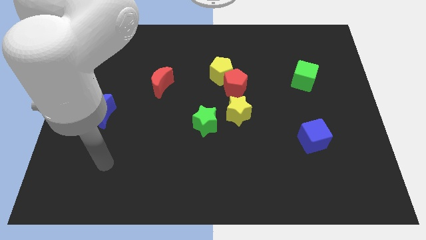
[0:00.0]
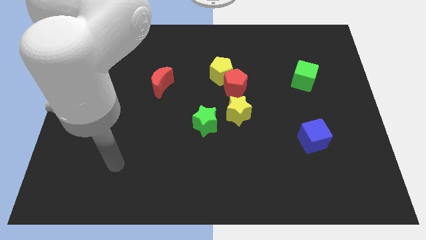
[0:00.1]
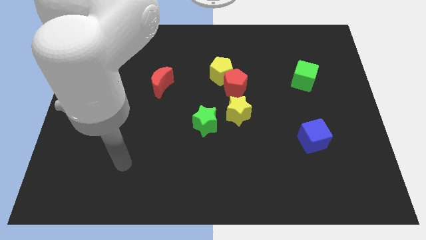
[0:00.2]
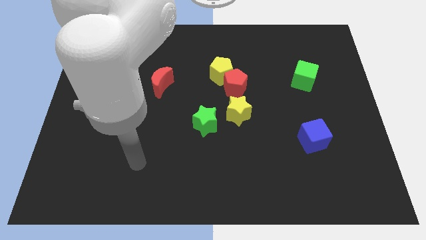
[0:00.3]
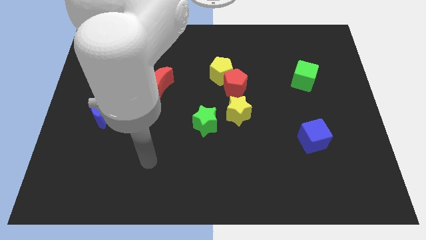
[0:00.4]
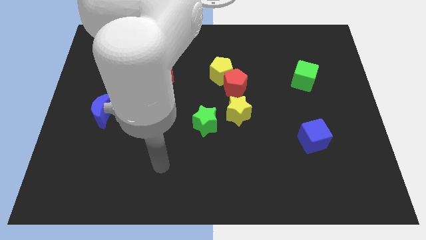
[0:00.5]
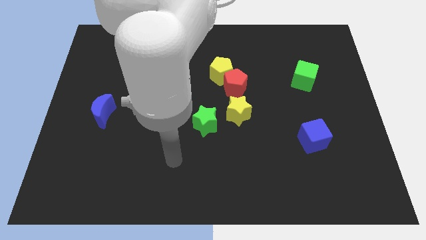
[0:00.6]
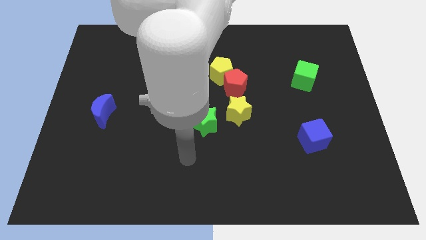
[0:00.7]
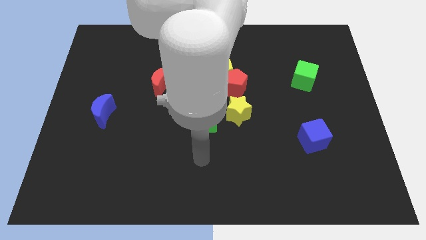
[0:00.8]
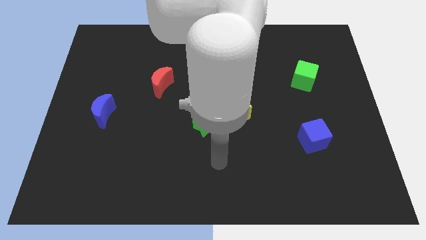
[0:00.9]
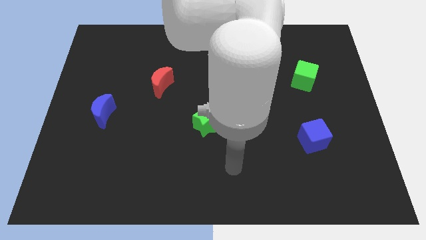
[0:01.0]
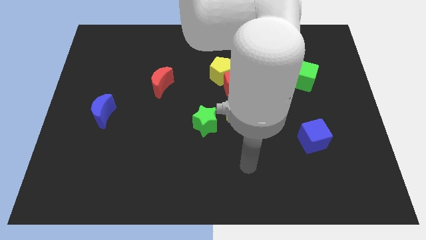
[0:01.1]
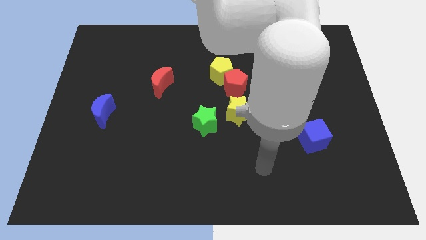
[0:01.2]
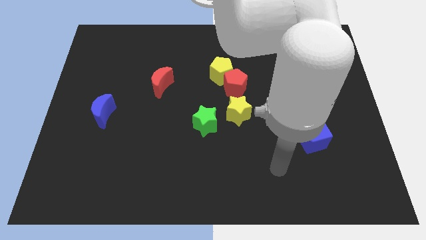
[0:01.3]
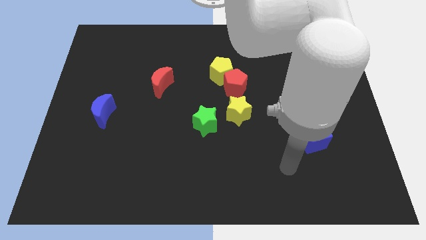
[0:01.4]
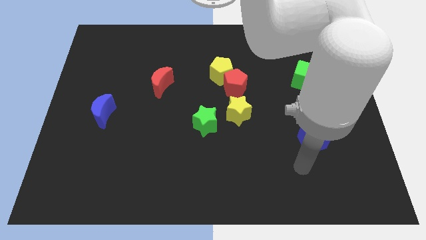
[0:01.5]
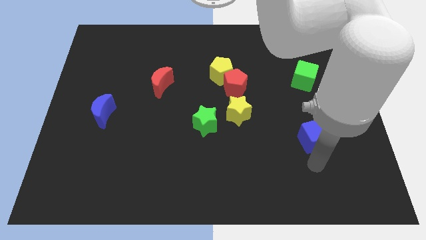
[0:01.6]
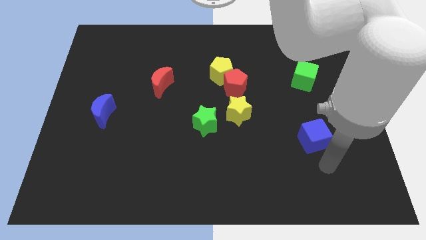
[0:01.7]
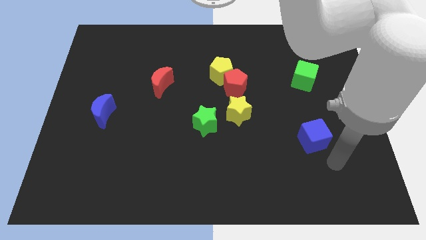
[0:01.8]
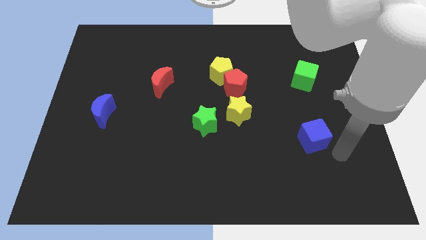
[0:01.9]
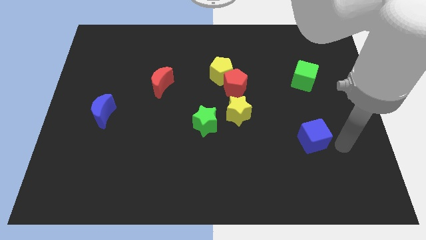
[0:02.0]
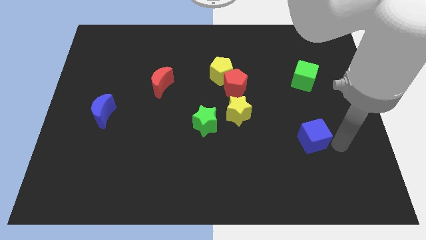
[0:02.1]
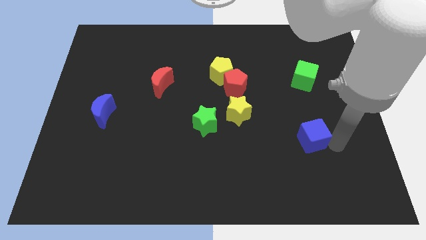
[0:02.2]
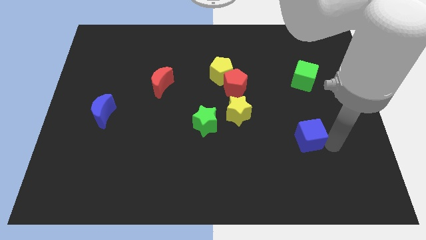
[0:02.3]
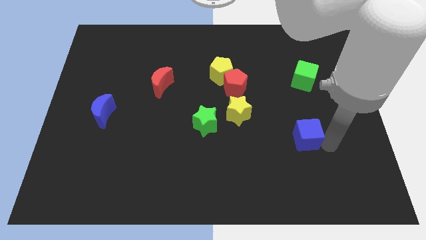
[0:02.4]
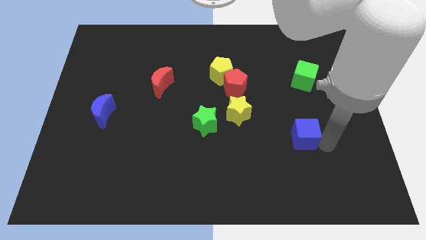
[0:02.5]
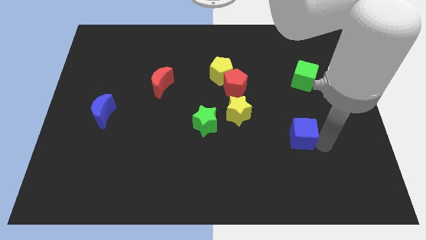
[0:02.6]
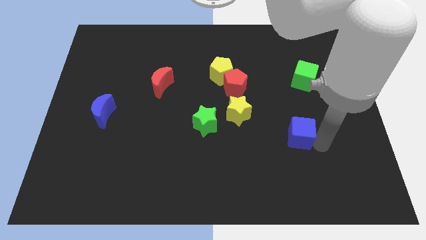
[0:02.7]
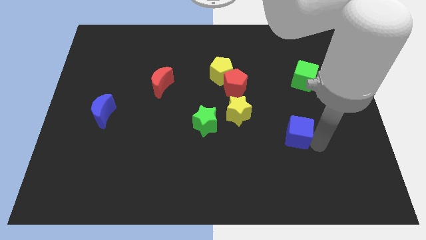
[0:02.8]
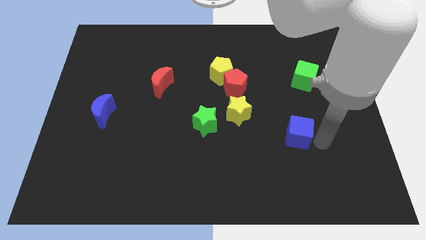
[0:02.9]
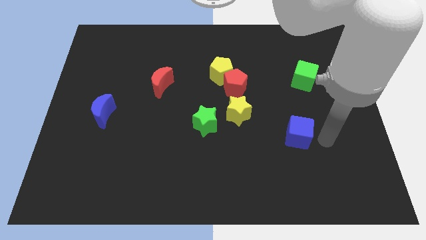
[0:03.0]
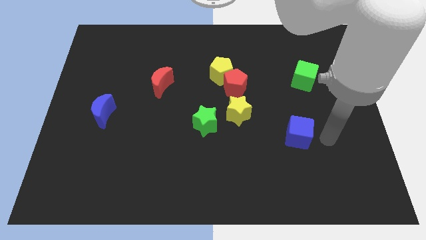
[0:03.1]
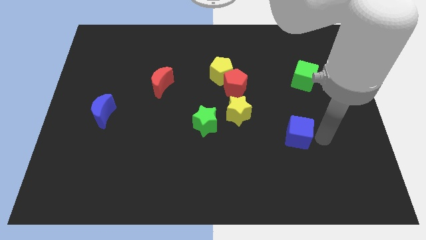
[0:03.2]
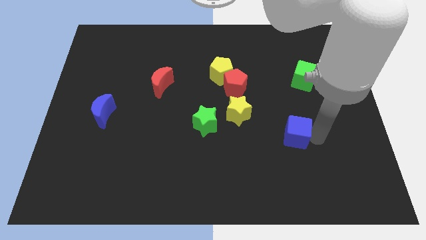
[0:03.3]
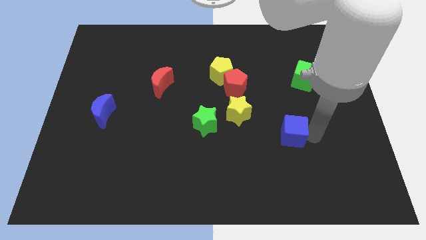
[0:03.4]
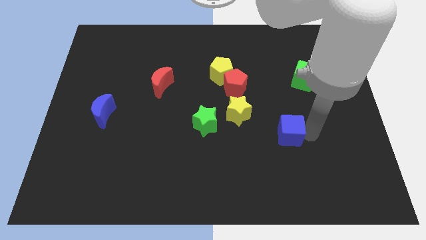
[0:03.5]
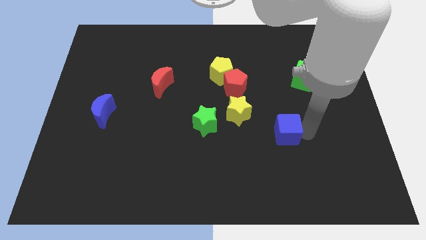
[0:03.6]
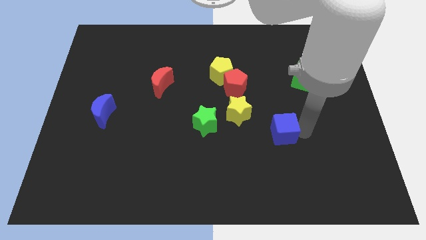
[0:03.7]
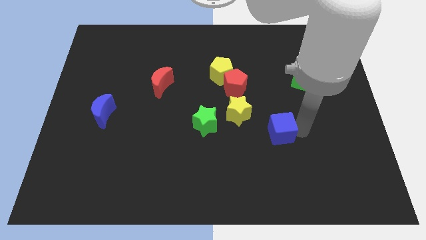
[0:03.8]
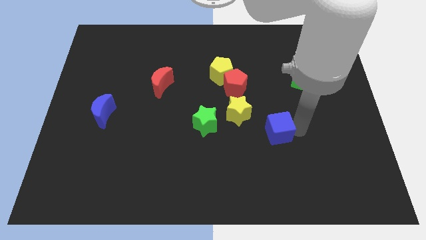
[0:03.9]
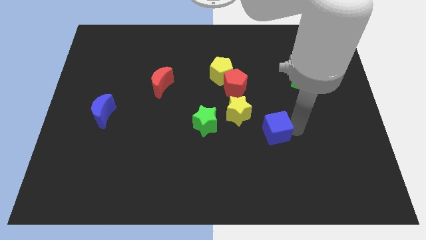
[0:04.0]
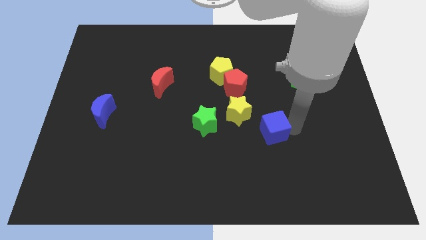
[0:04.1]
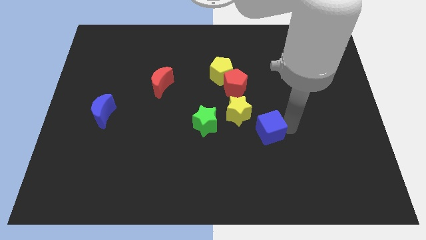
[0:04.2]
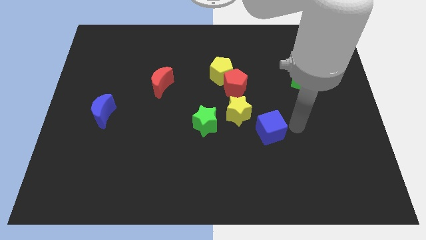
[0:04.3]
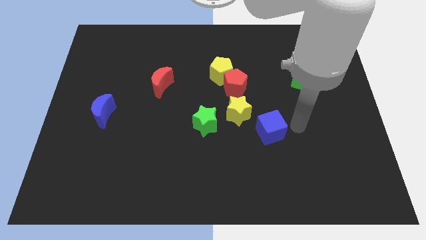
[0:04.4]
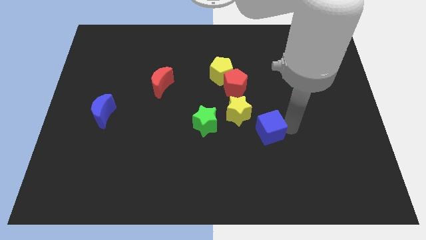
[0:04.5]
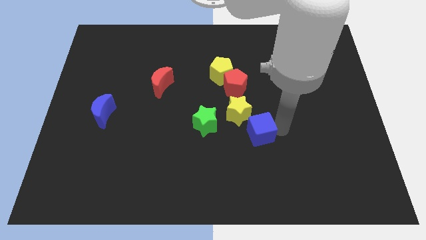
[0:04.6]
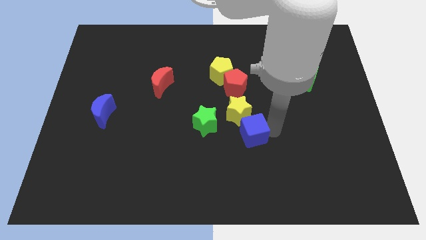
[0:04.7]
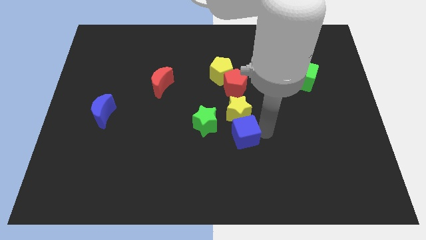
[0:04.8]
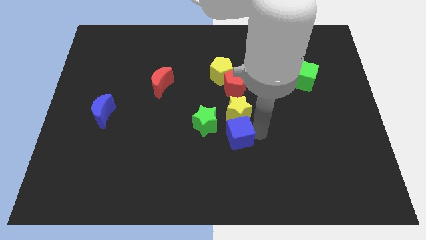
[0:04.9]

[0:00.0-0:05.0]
put the blue cube to the bottom left of the yellow star

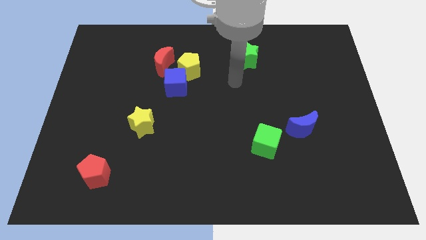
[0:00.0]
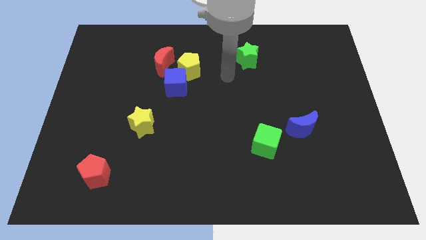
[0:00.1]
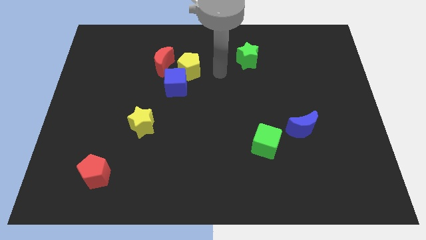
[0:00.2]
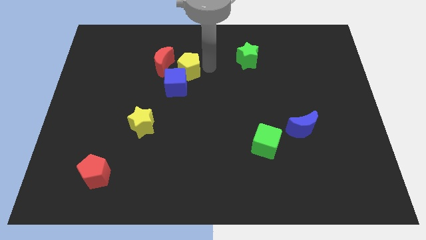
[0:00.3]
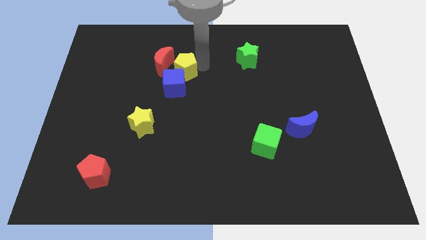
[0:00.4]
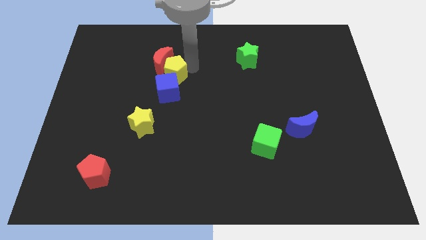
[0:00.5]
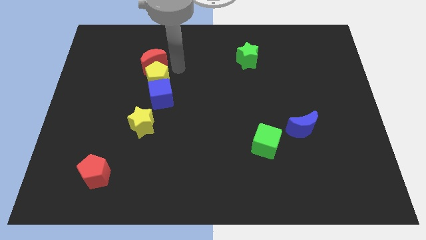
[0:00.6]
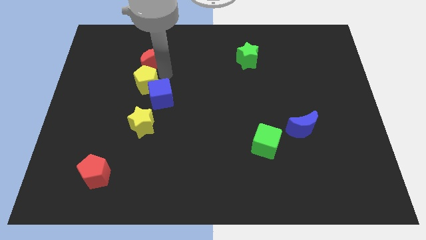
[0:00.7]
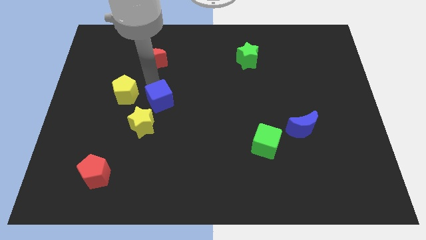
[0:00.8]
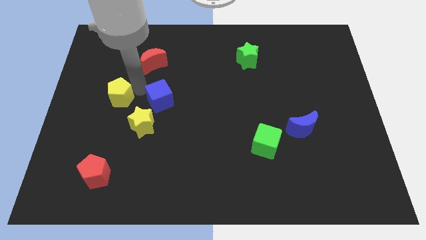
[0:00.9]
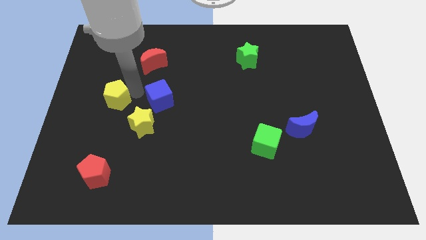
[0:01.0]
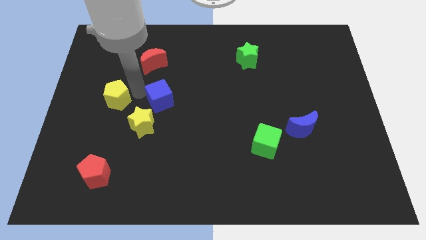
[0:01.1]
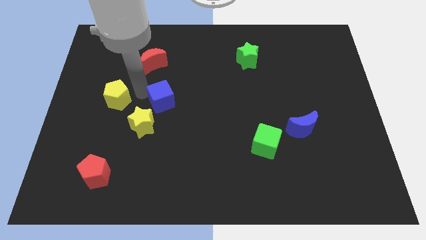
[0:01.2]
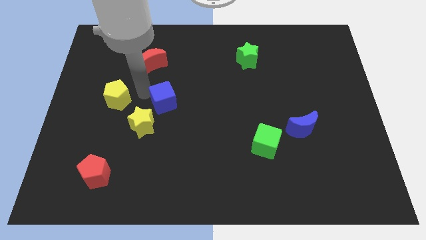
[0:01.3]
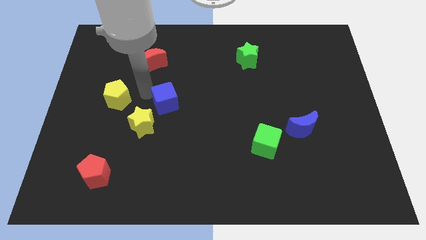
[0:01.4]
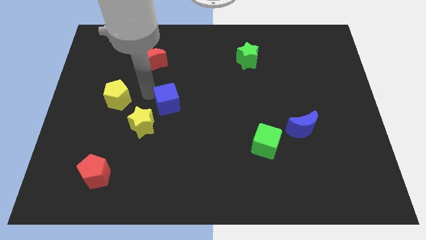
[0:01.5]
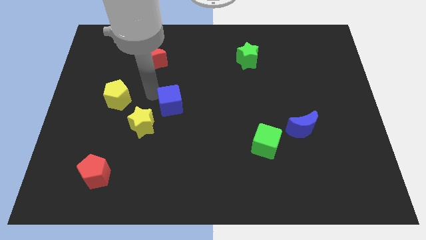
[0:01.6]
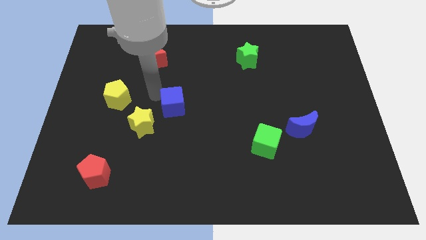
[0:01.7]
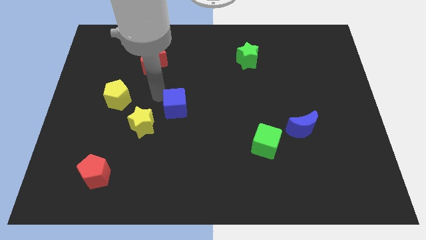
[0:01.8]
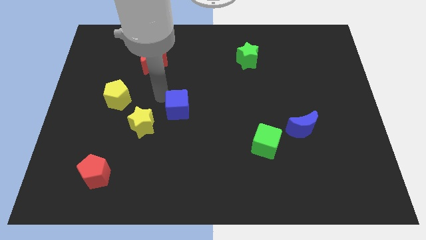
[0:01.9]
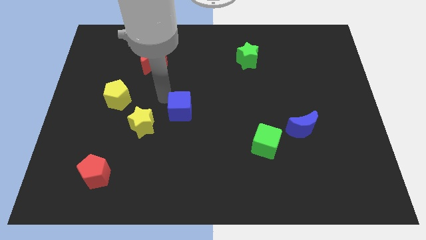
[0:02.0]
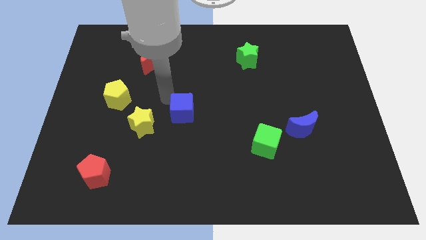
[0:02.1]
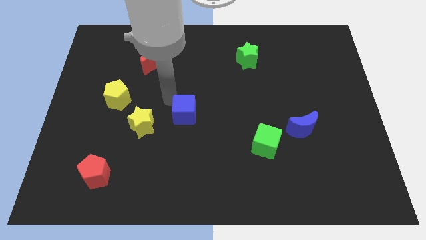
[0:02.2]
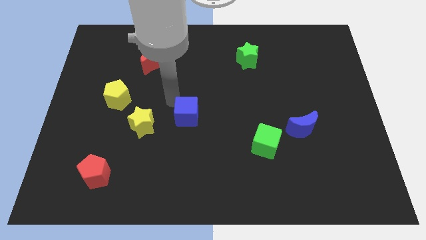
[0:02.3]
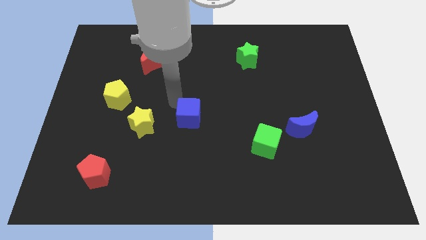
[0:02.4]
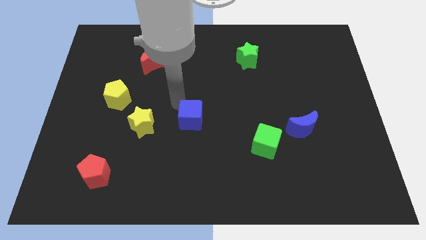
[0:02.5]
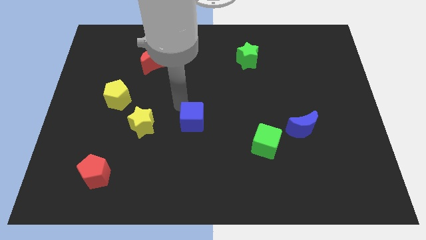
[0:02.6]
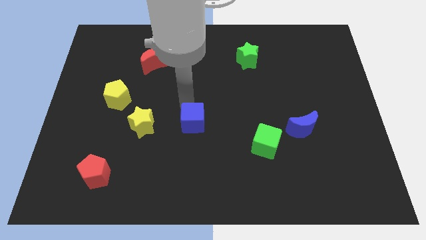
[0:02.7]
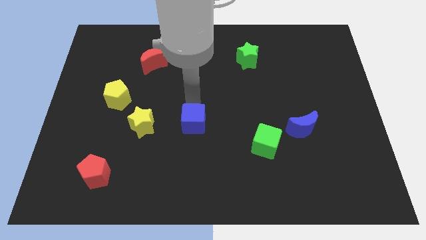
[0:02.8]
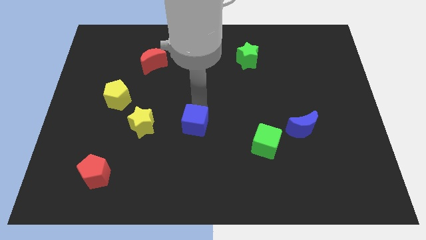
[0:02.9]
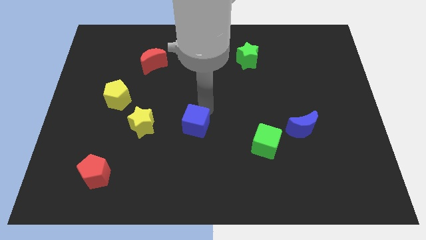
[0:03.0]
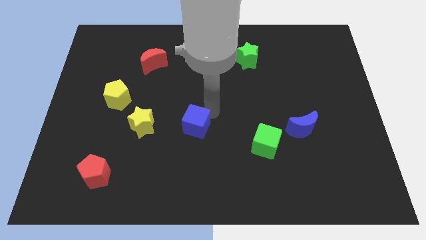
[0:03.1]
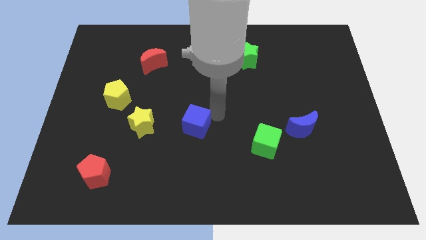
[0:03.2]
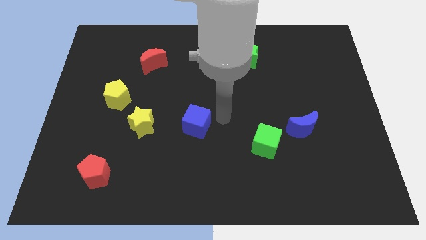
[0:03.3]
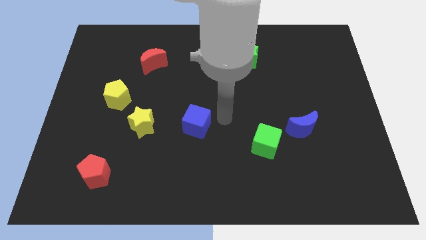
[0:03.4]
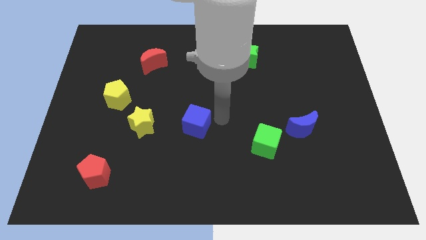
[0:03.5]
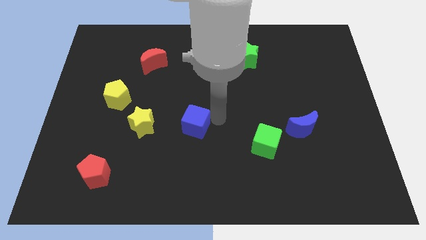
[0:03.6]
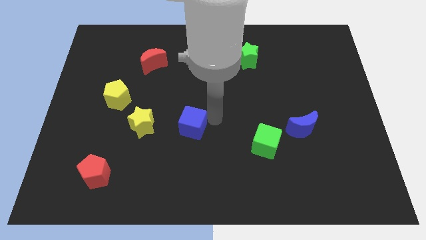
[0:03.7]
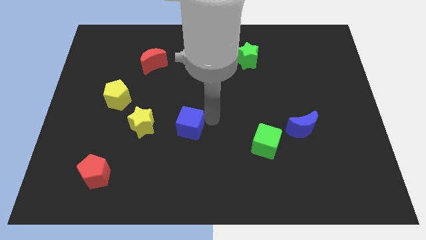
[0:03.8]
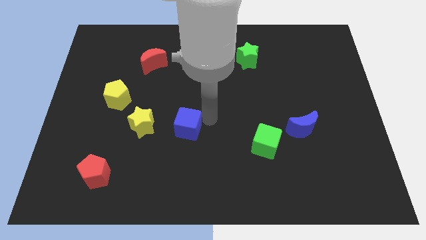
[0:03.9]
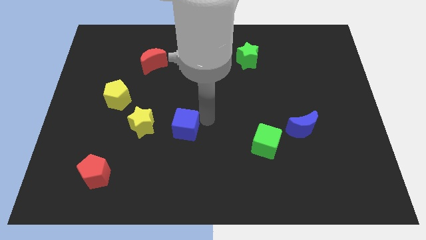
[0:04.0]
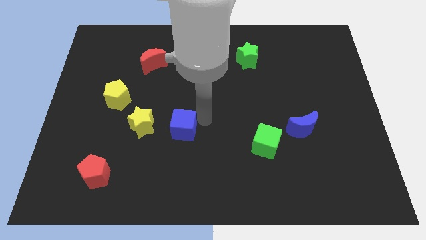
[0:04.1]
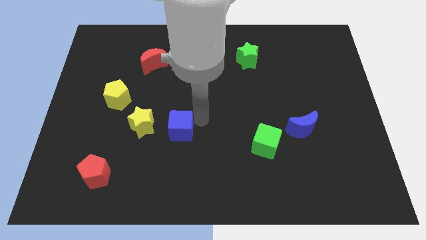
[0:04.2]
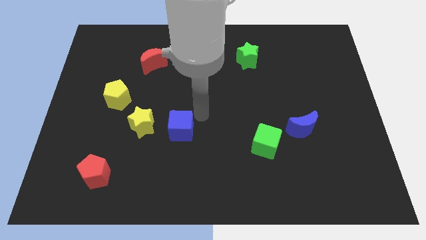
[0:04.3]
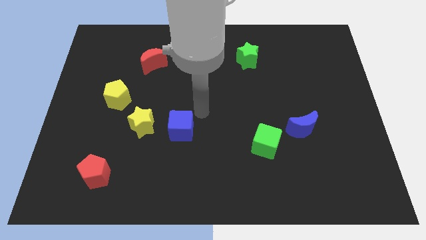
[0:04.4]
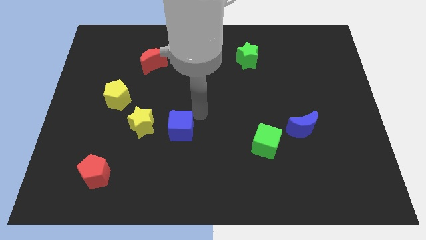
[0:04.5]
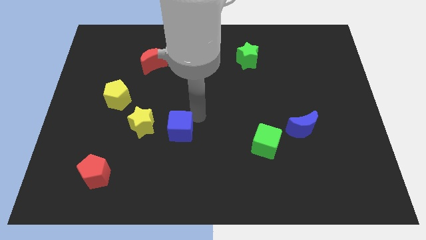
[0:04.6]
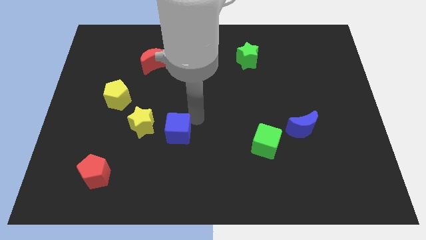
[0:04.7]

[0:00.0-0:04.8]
push the blue cube to the bottom right of the yellow star
